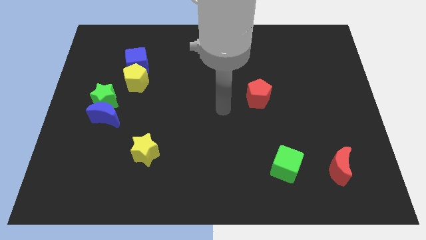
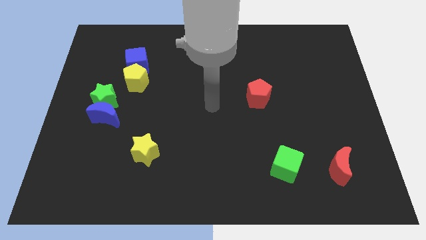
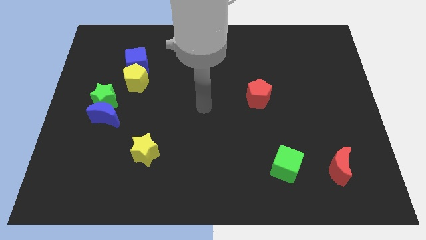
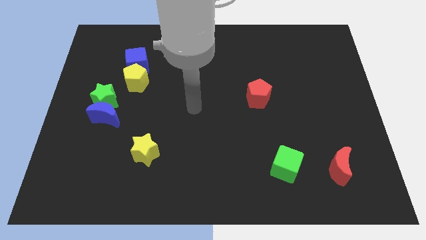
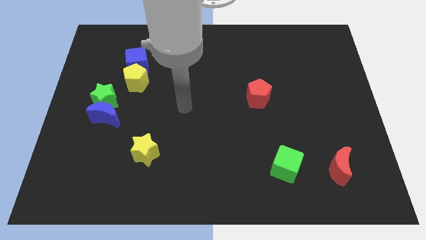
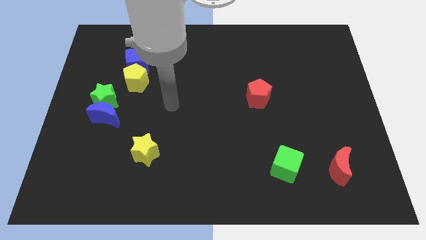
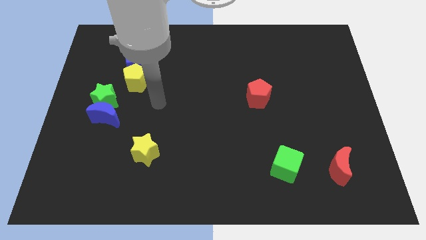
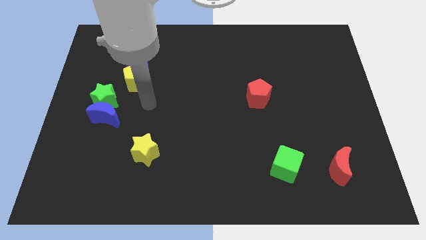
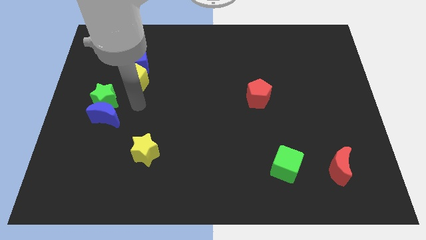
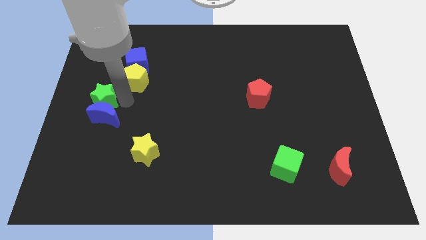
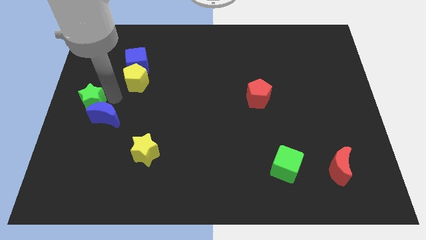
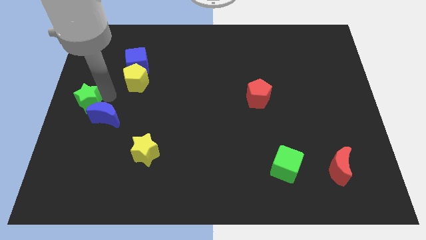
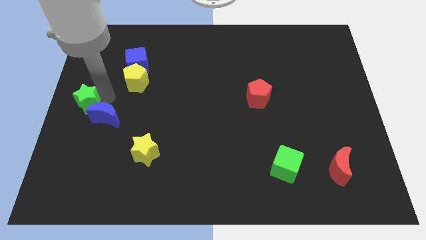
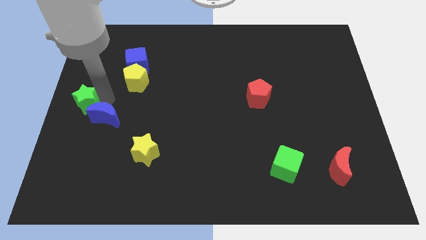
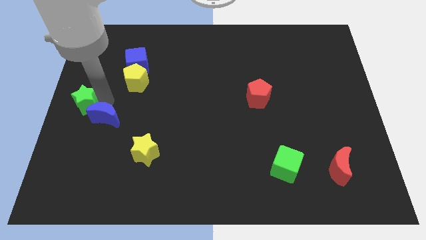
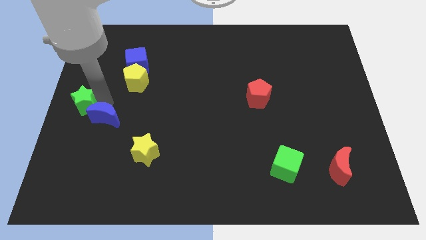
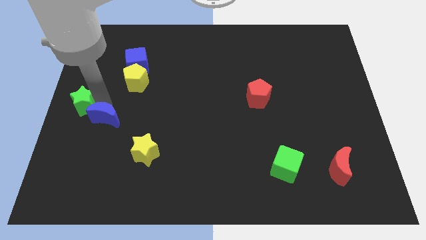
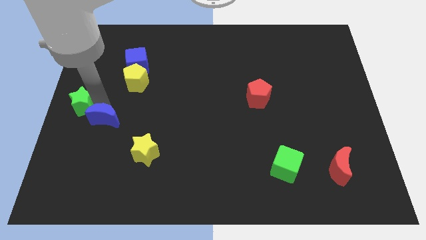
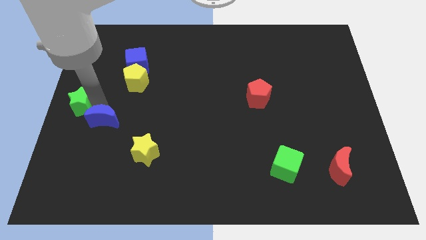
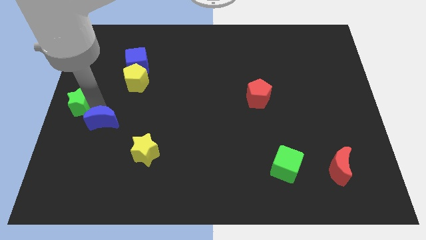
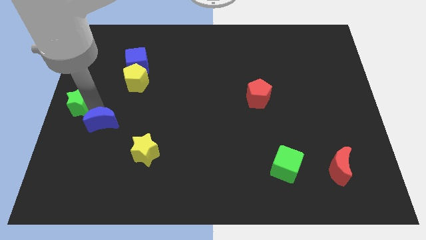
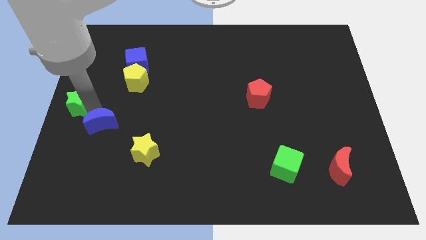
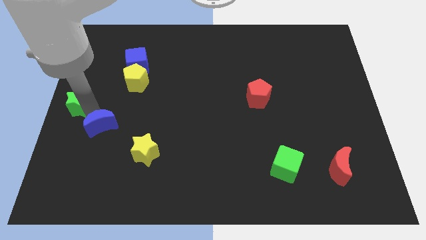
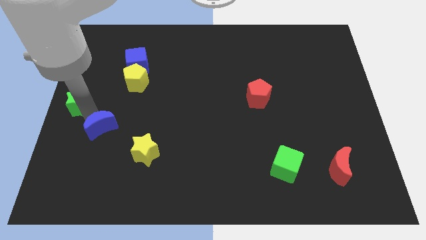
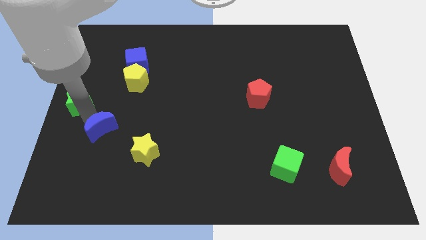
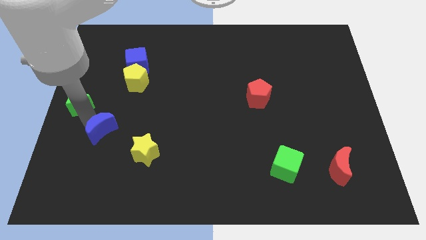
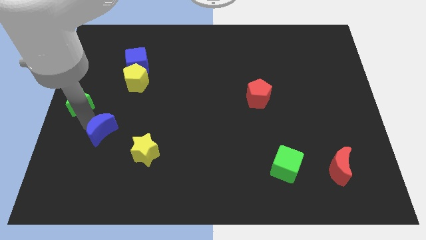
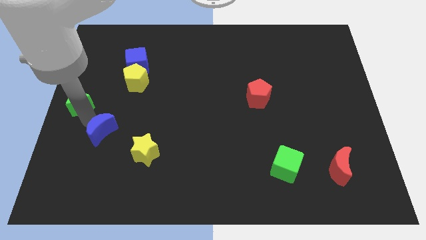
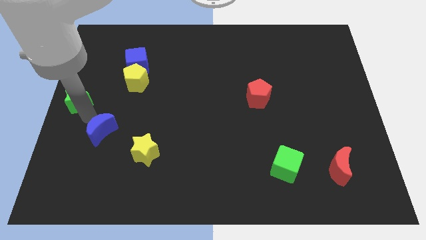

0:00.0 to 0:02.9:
separate the blue moon from the green star

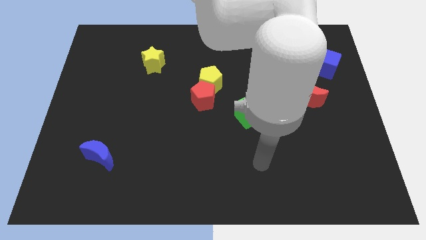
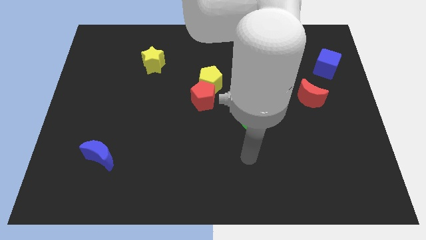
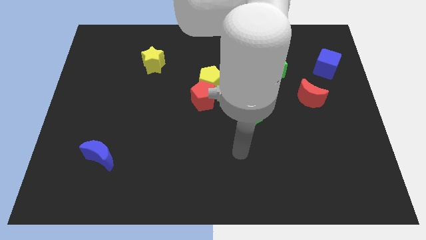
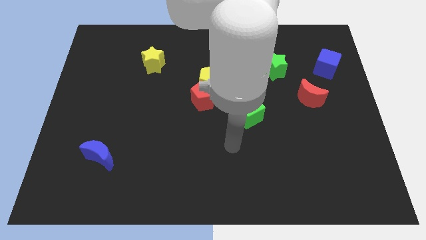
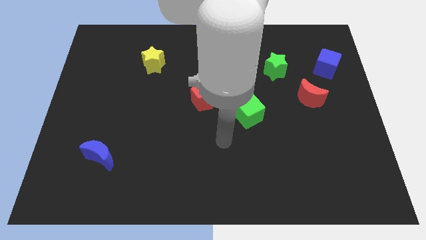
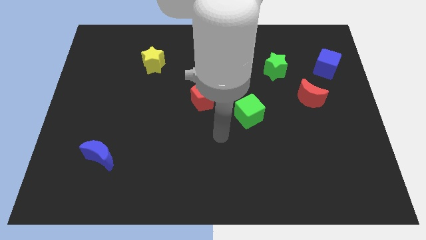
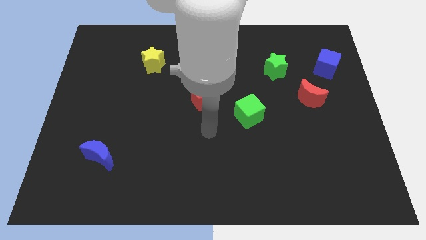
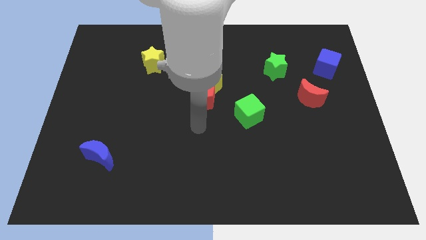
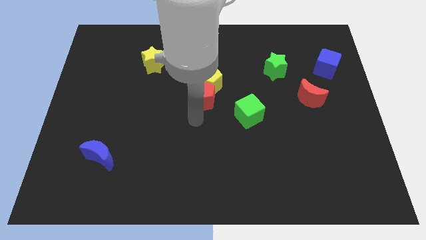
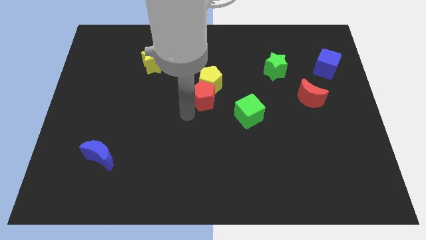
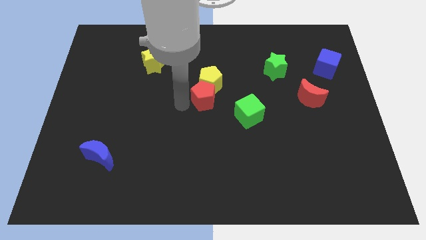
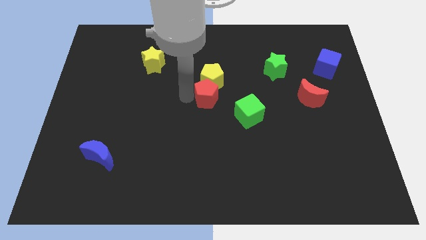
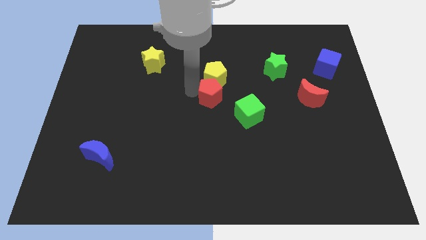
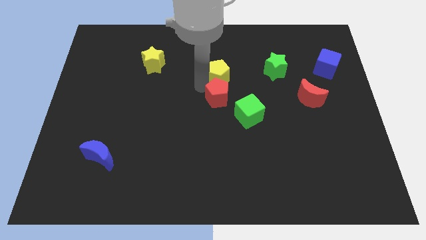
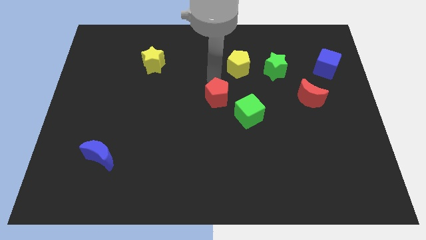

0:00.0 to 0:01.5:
pull the red pentagon apart from the yellow pentagon

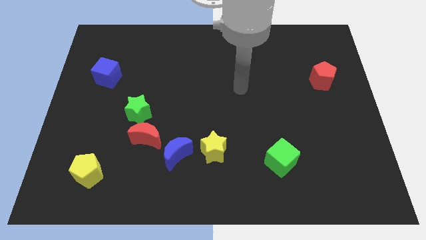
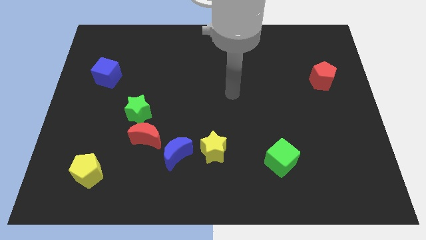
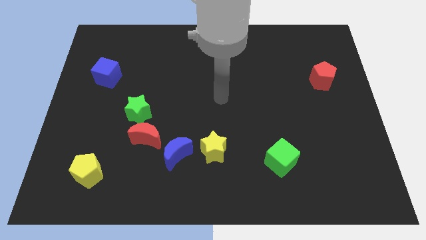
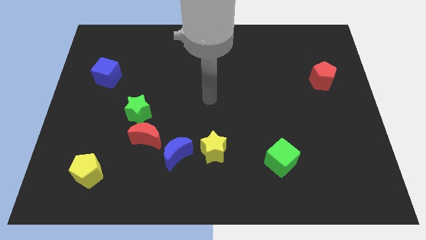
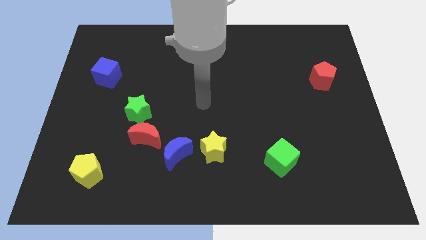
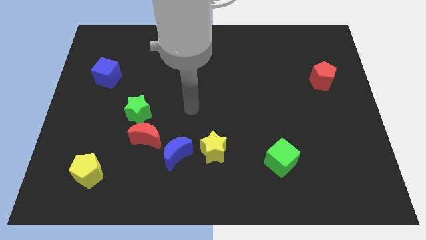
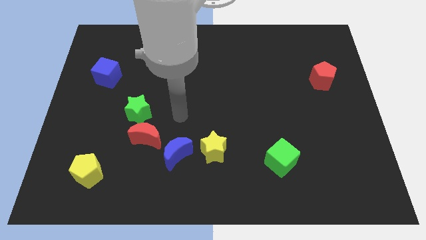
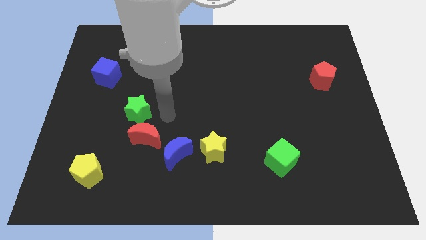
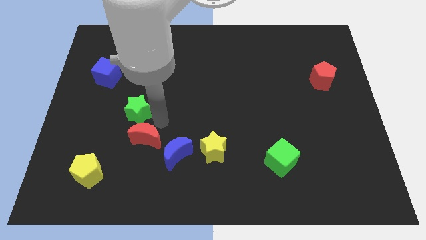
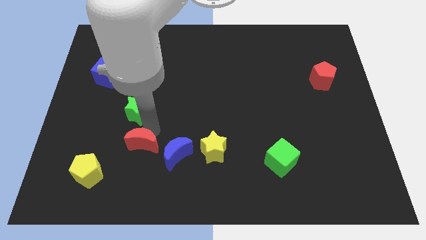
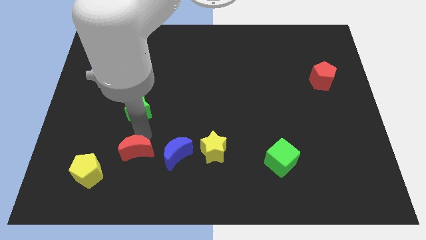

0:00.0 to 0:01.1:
pull the green star apart from the red moon

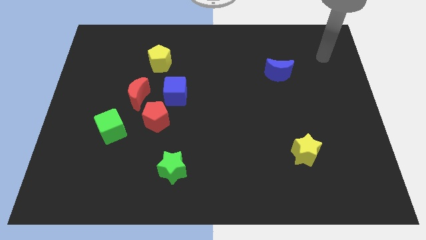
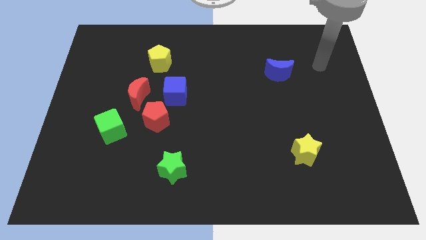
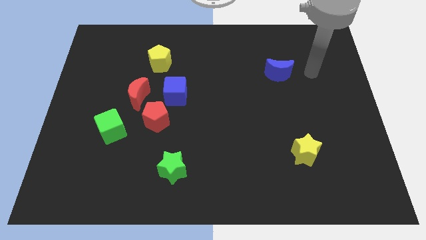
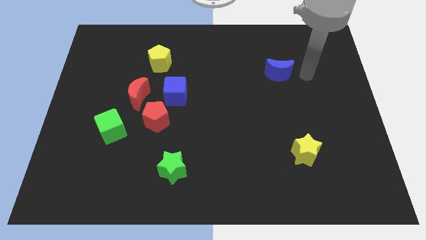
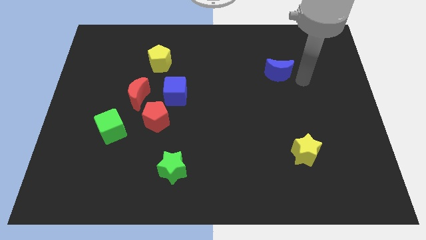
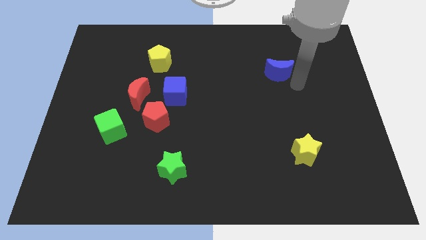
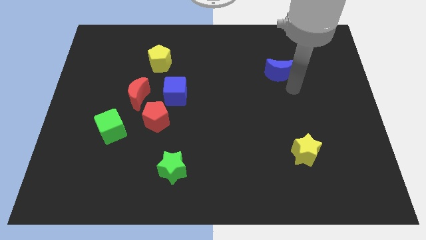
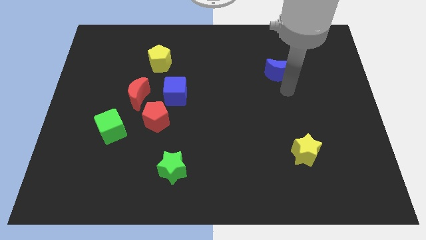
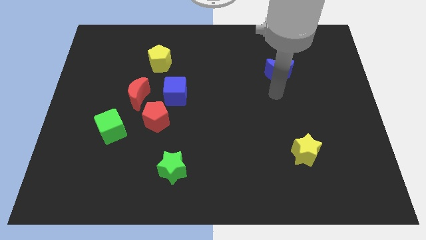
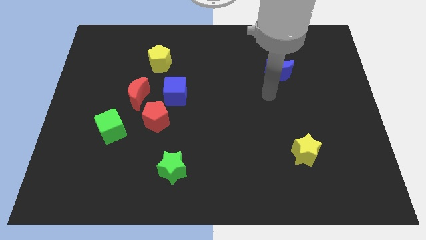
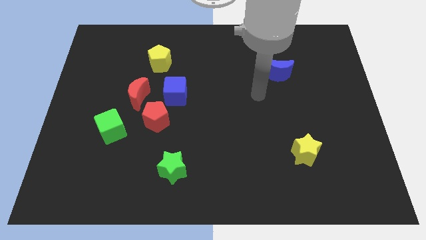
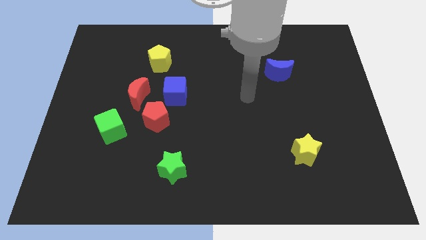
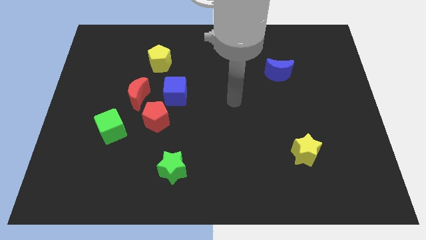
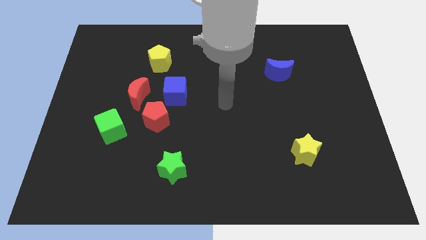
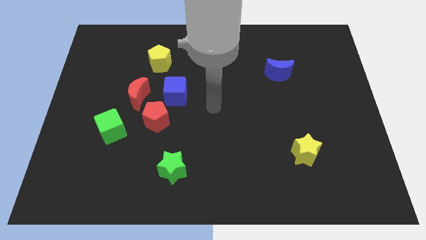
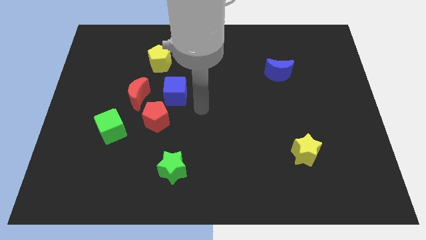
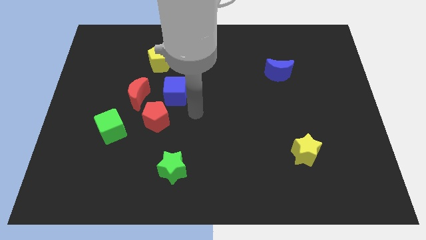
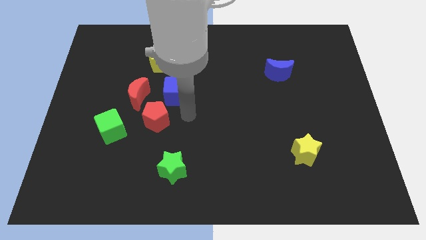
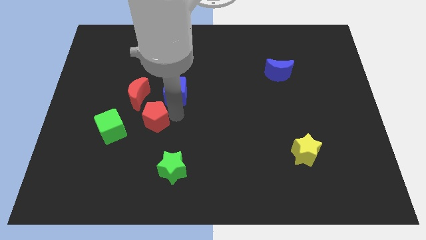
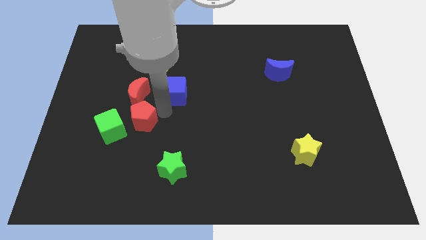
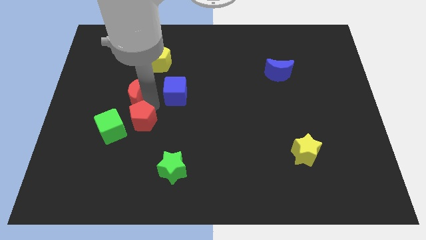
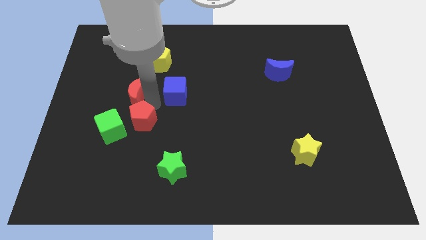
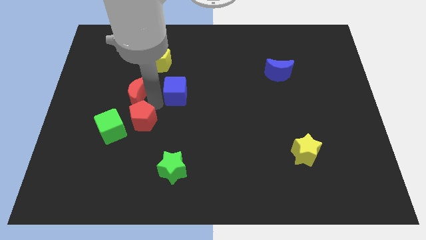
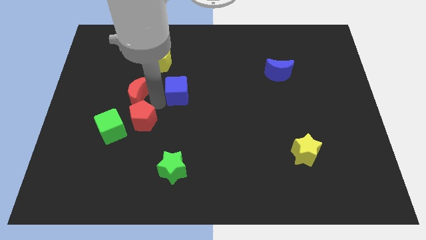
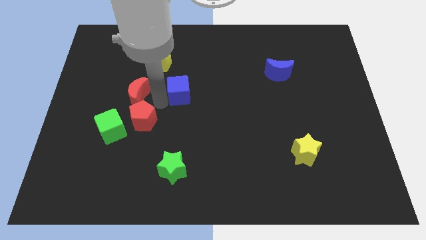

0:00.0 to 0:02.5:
move the blue cube away from the red pentagon and red moon

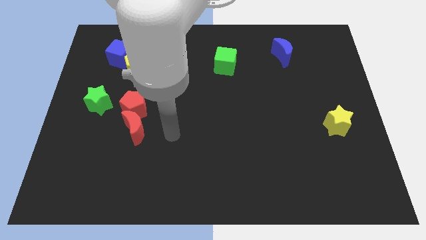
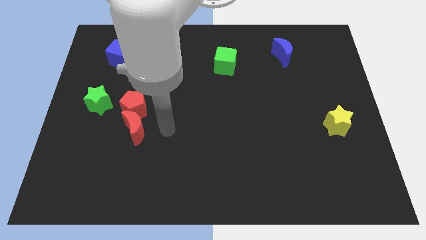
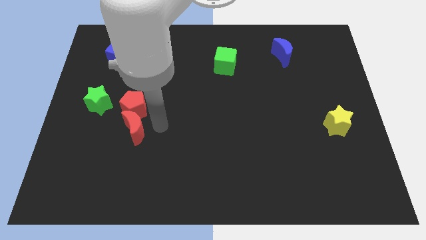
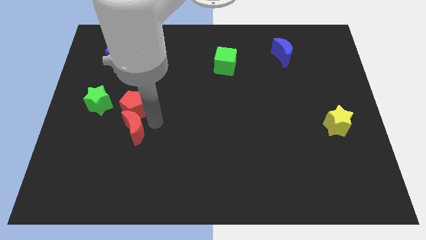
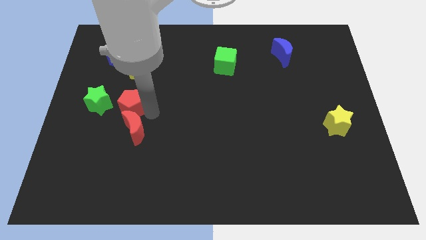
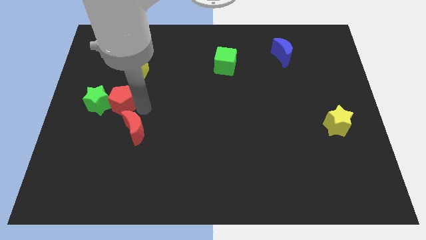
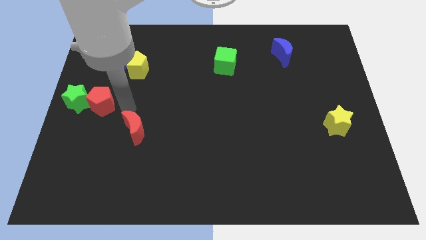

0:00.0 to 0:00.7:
separate the red moon from the red pentagon

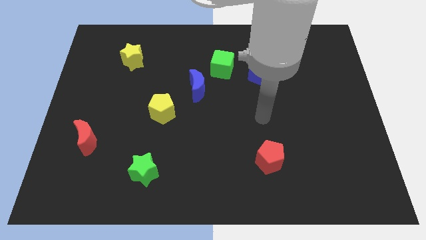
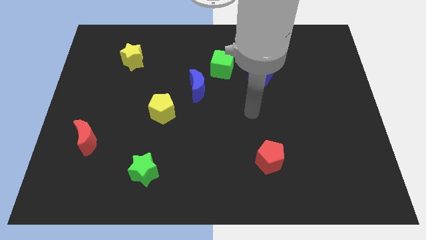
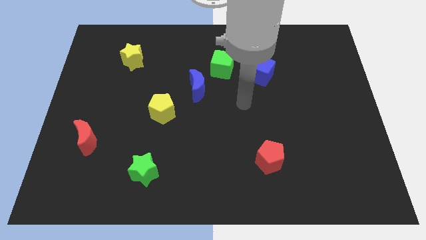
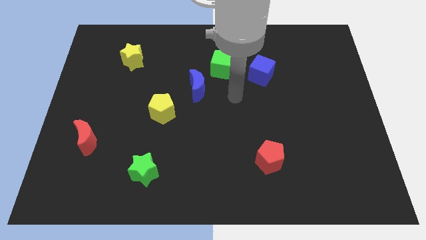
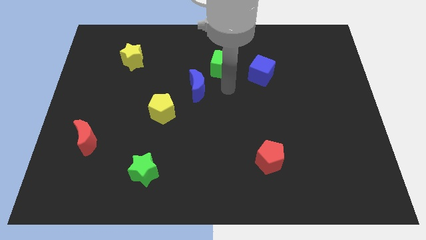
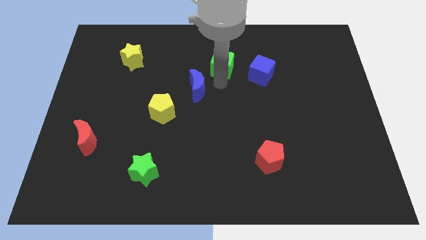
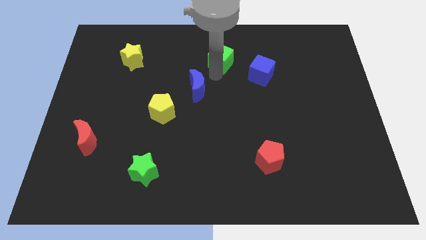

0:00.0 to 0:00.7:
pull the blue moon apart from the green cube
